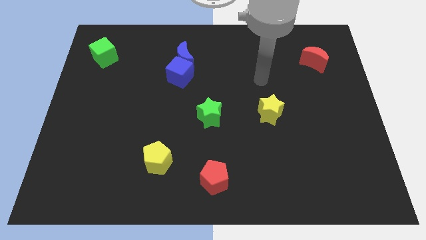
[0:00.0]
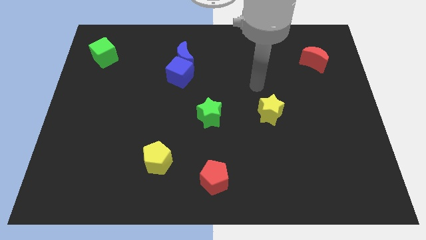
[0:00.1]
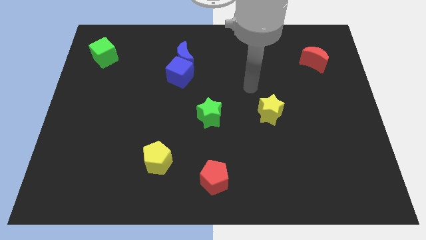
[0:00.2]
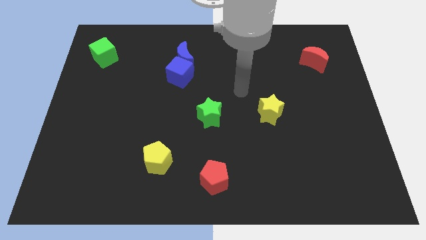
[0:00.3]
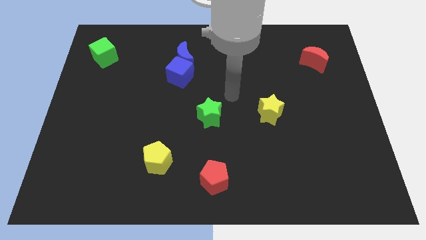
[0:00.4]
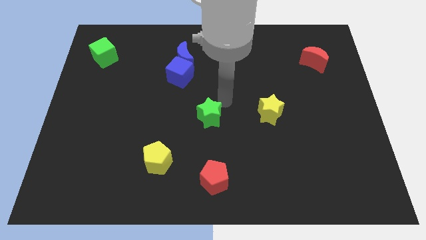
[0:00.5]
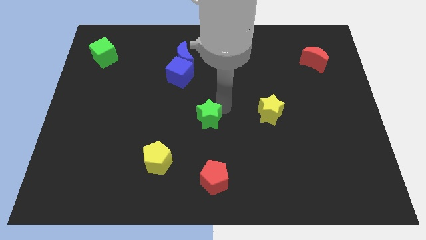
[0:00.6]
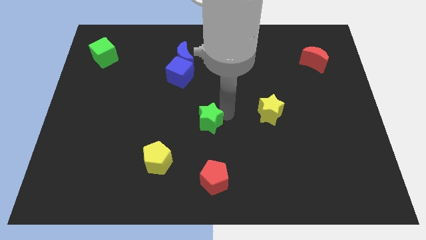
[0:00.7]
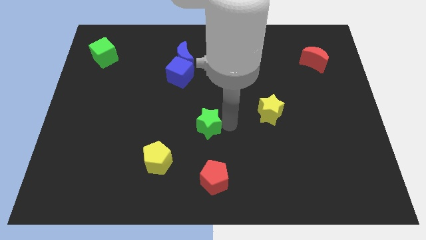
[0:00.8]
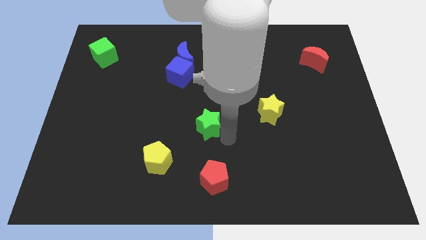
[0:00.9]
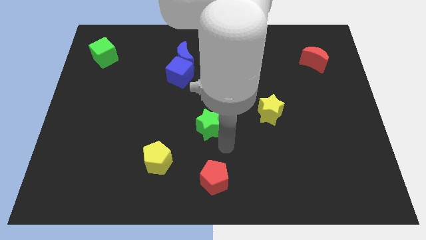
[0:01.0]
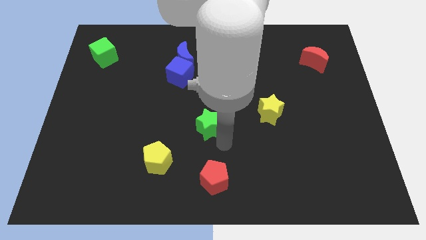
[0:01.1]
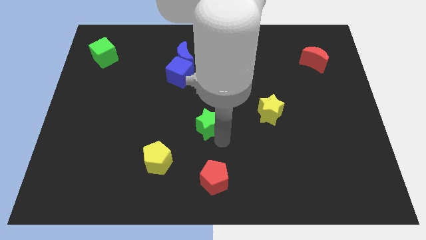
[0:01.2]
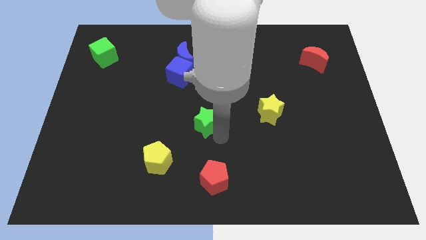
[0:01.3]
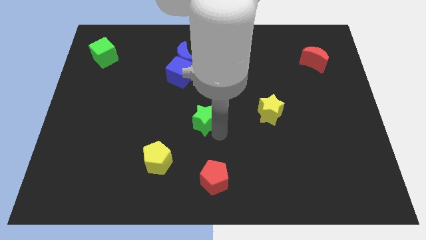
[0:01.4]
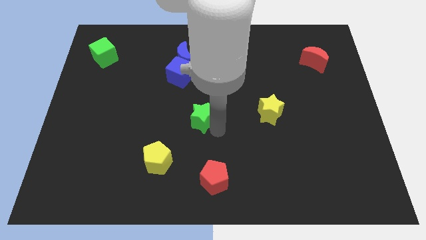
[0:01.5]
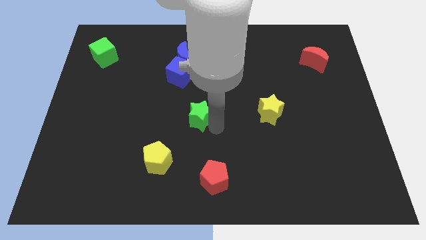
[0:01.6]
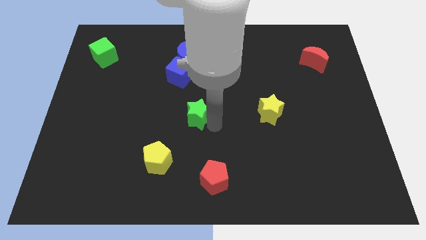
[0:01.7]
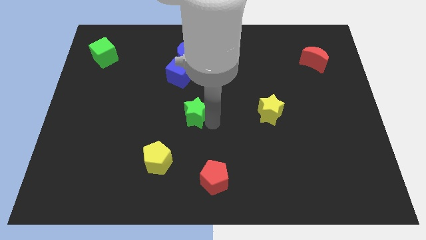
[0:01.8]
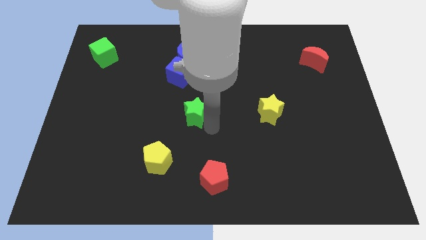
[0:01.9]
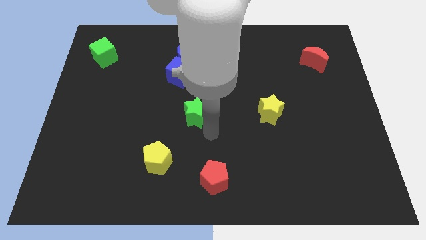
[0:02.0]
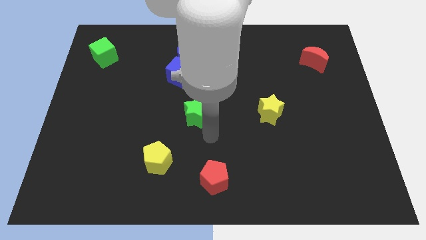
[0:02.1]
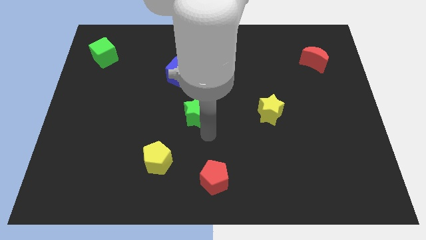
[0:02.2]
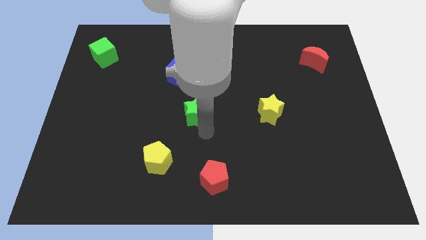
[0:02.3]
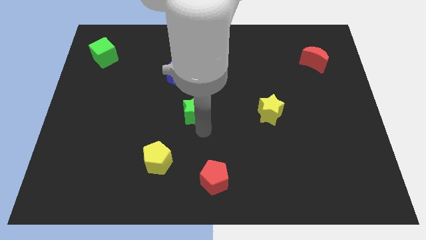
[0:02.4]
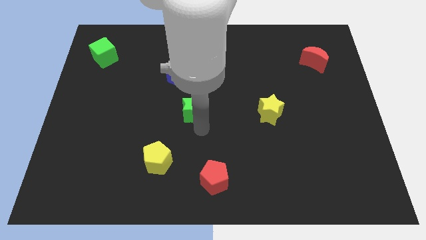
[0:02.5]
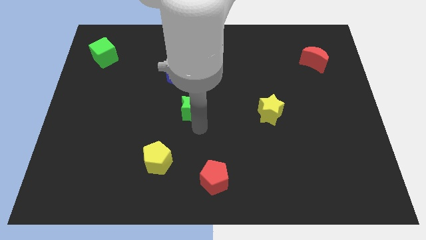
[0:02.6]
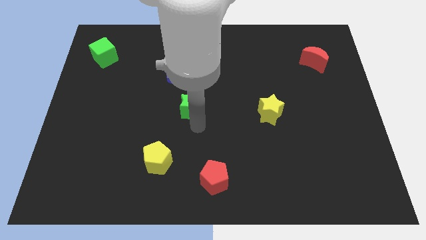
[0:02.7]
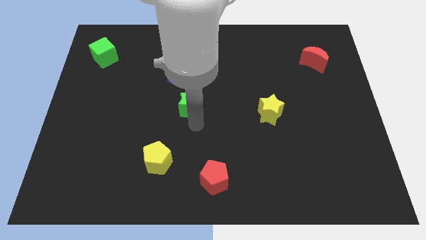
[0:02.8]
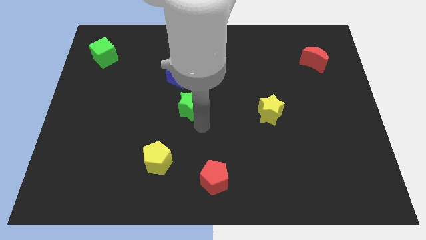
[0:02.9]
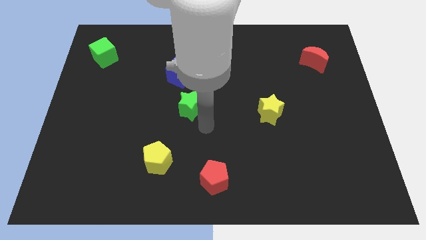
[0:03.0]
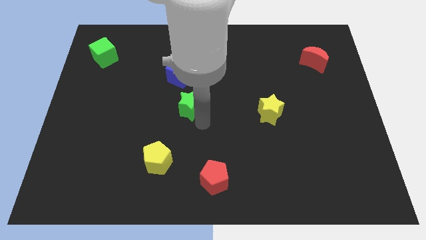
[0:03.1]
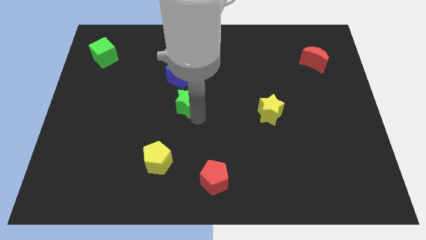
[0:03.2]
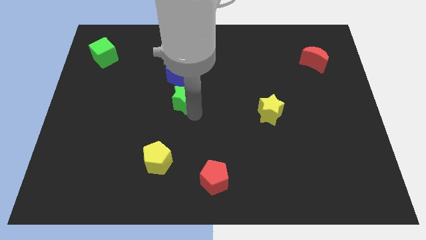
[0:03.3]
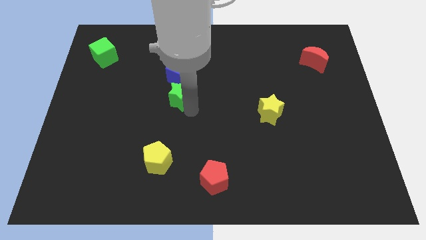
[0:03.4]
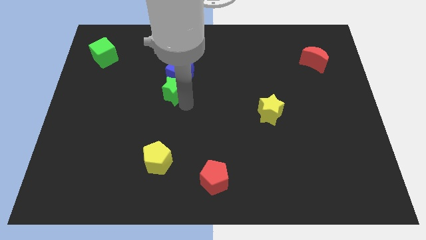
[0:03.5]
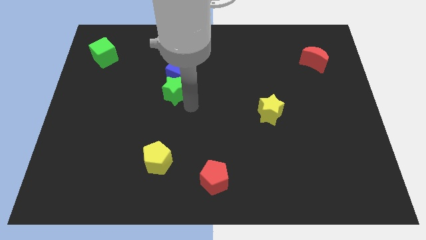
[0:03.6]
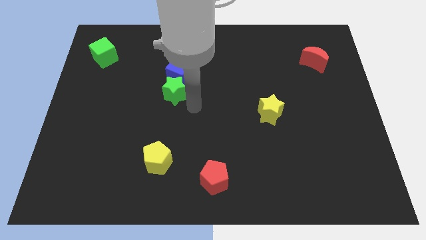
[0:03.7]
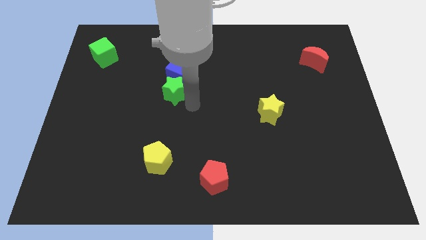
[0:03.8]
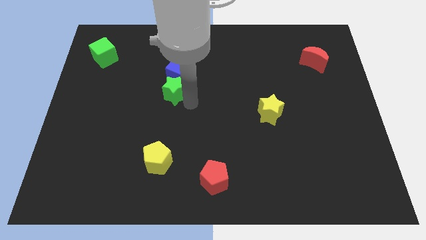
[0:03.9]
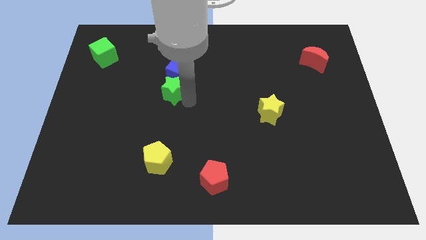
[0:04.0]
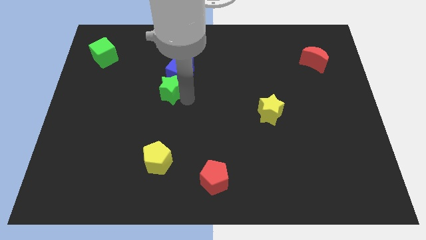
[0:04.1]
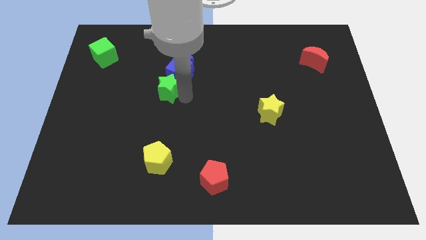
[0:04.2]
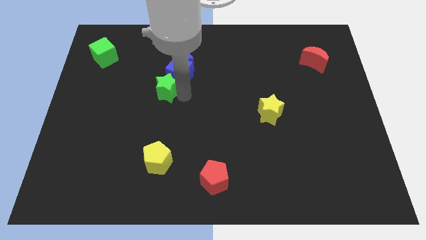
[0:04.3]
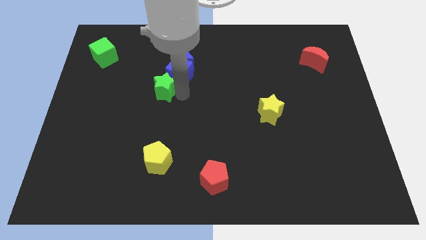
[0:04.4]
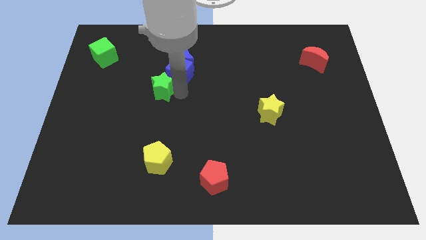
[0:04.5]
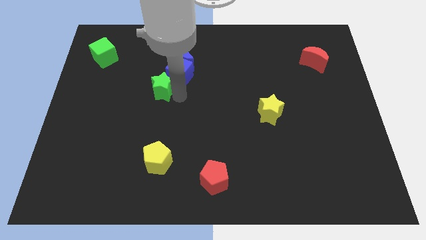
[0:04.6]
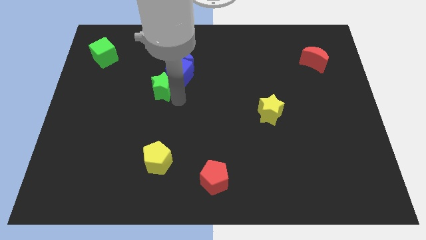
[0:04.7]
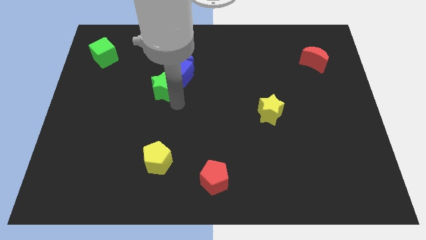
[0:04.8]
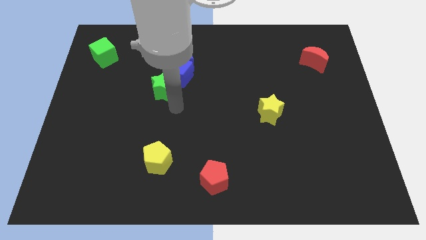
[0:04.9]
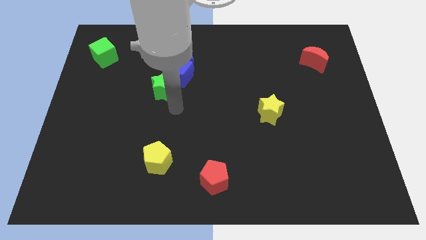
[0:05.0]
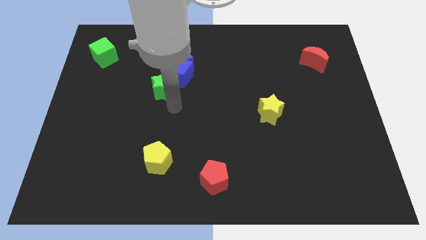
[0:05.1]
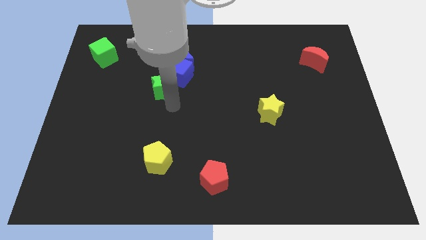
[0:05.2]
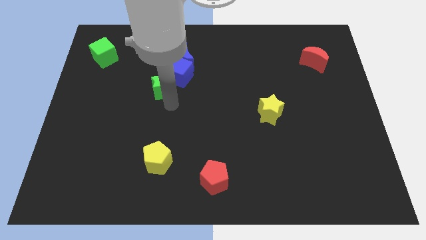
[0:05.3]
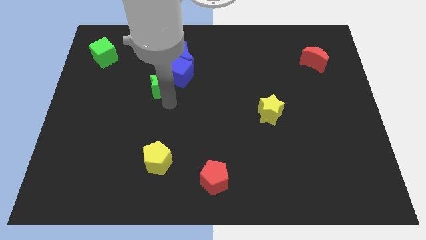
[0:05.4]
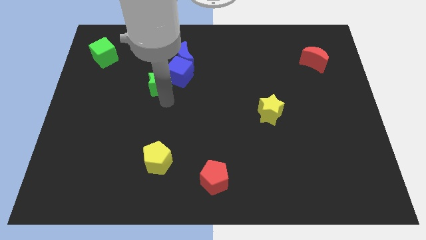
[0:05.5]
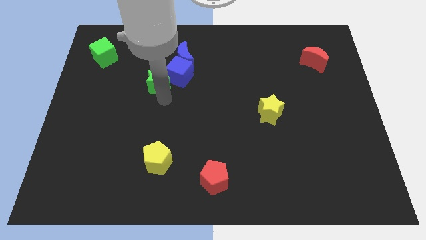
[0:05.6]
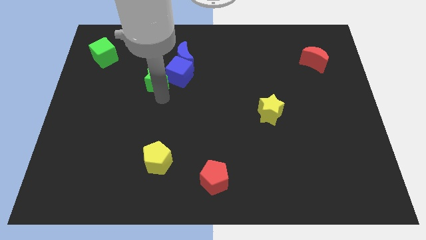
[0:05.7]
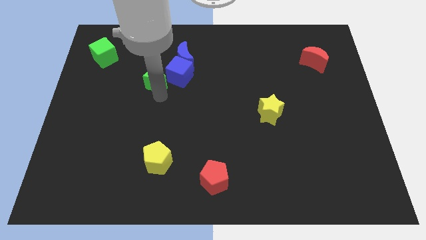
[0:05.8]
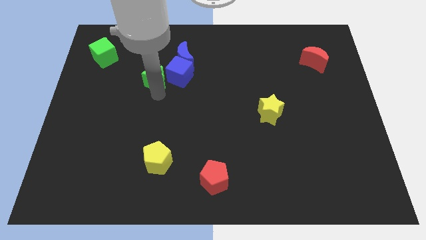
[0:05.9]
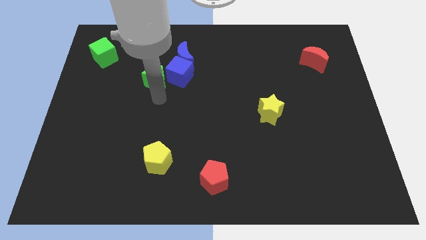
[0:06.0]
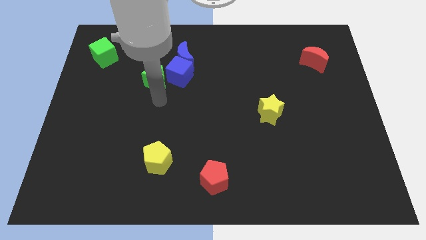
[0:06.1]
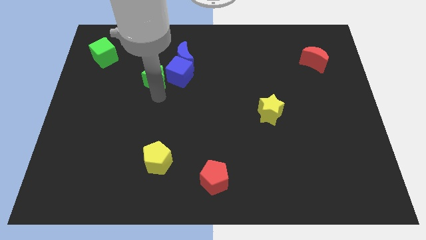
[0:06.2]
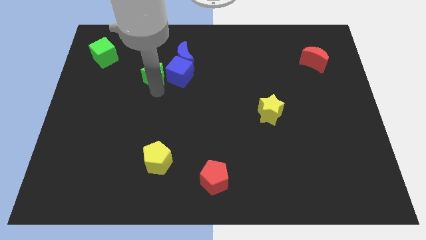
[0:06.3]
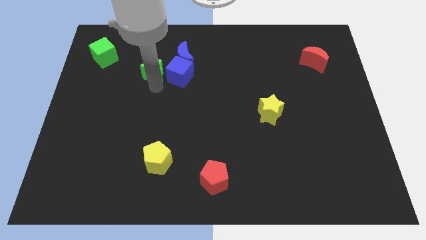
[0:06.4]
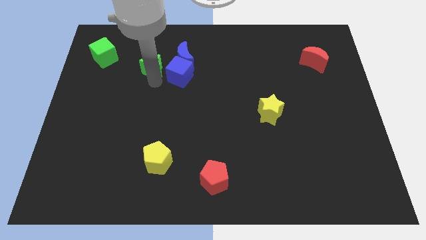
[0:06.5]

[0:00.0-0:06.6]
push the green star just right of the green cube
